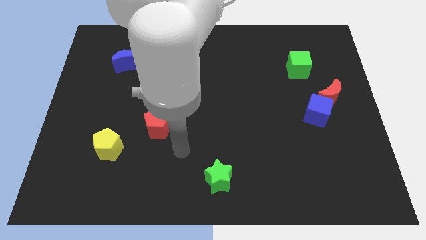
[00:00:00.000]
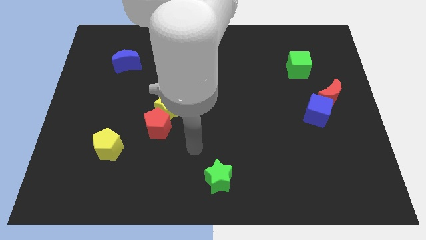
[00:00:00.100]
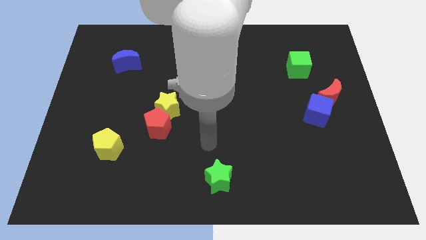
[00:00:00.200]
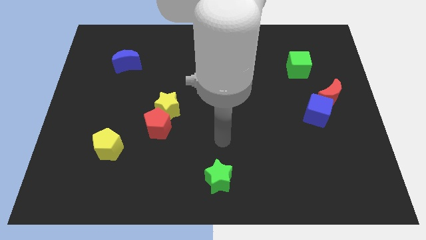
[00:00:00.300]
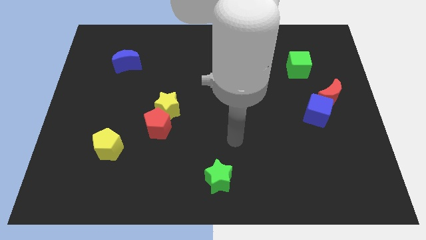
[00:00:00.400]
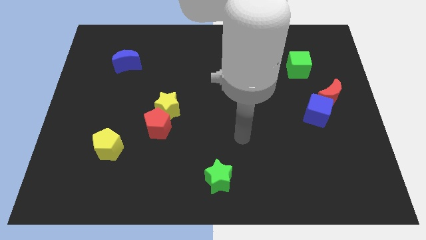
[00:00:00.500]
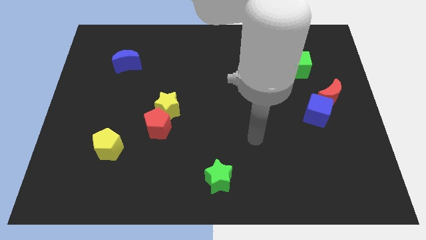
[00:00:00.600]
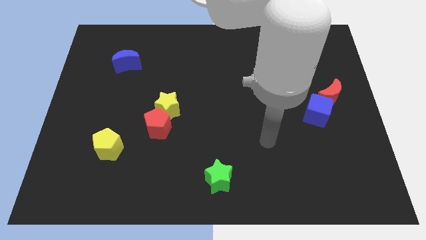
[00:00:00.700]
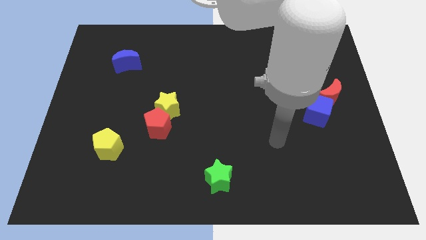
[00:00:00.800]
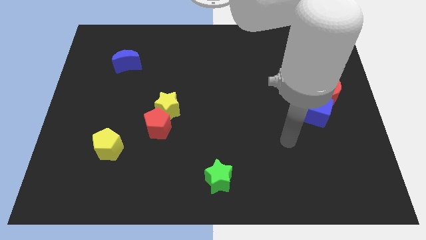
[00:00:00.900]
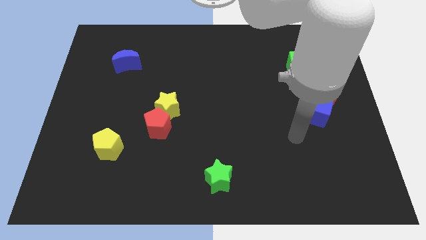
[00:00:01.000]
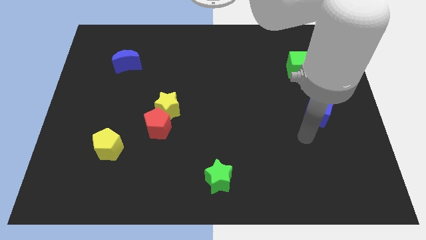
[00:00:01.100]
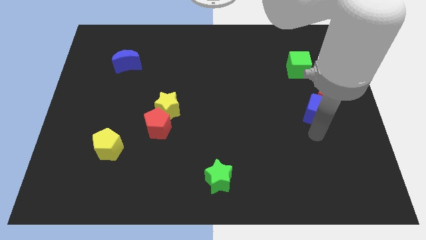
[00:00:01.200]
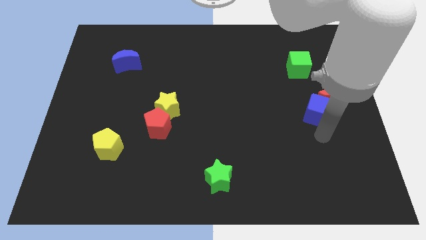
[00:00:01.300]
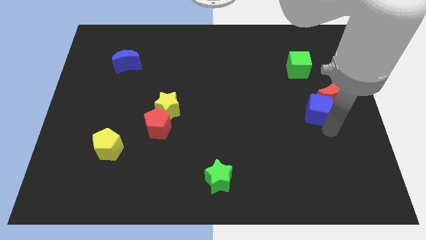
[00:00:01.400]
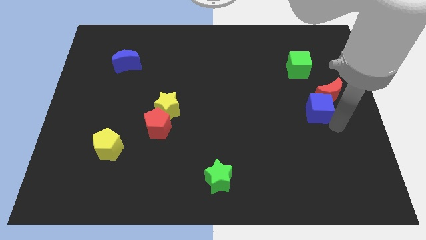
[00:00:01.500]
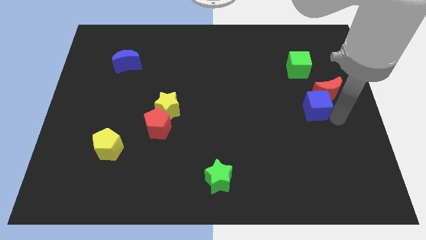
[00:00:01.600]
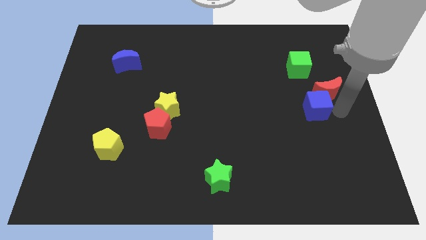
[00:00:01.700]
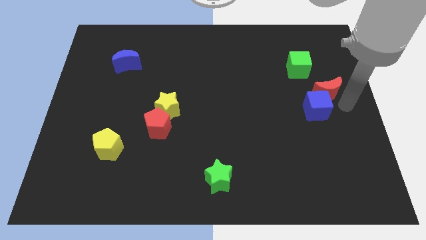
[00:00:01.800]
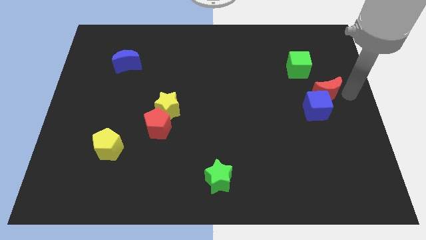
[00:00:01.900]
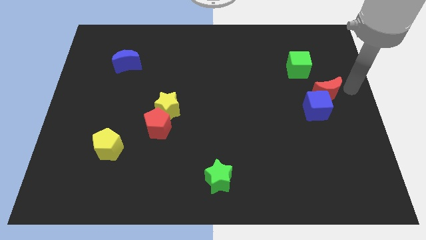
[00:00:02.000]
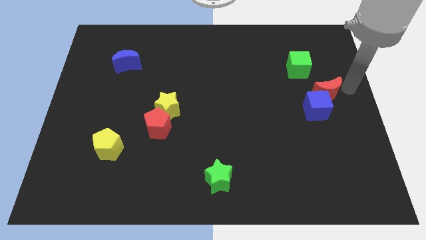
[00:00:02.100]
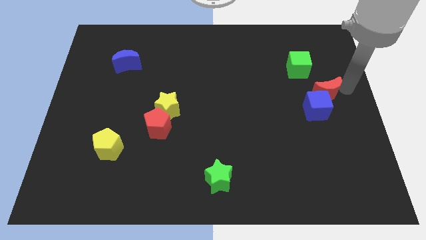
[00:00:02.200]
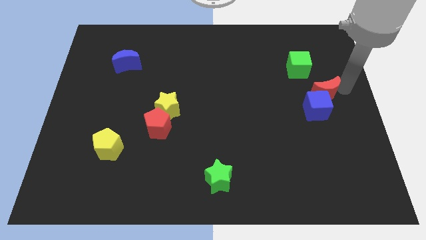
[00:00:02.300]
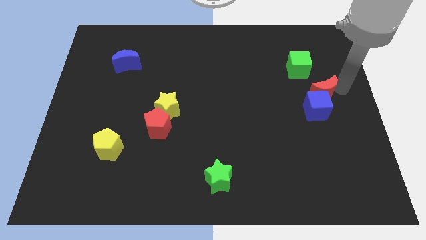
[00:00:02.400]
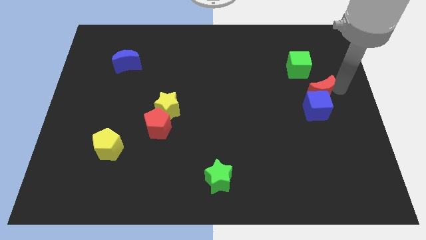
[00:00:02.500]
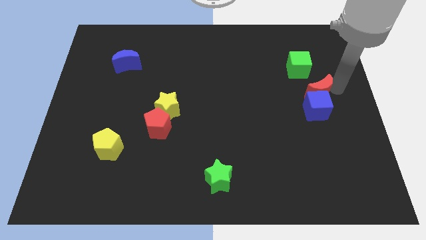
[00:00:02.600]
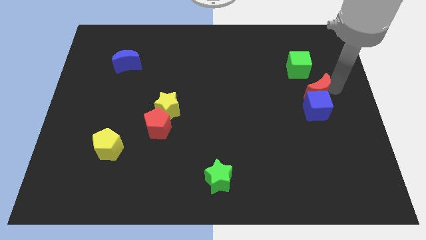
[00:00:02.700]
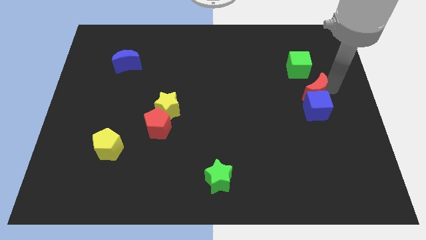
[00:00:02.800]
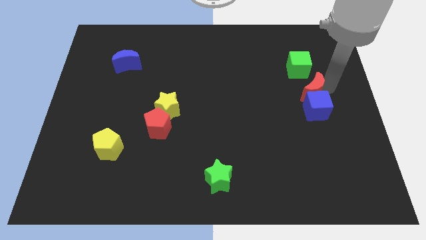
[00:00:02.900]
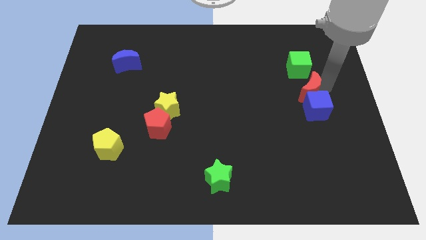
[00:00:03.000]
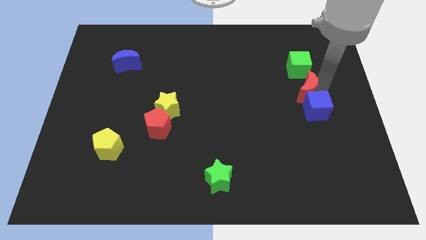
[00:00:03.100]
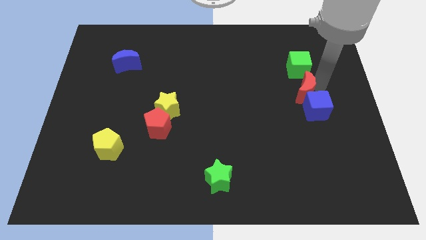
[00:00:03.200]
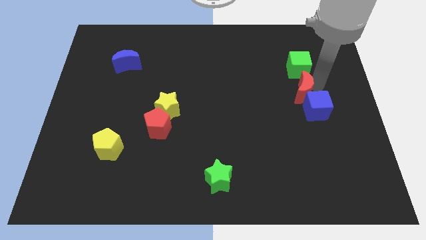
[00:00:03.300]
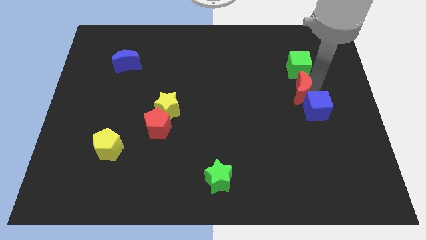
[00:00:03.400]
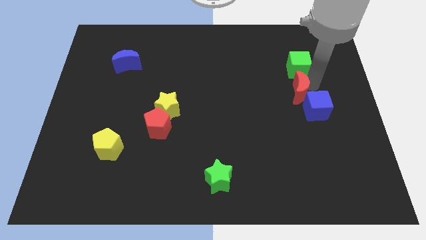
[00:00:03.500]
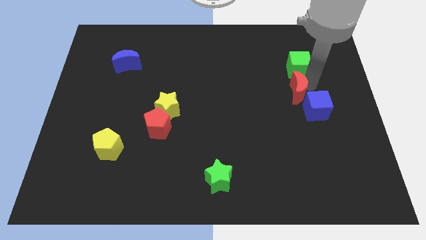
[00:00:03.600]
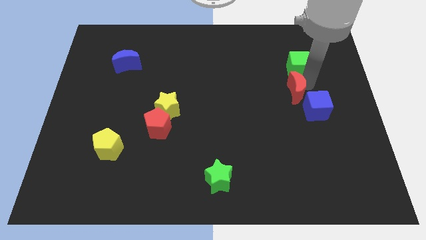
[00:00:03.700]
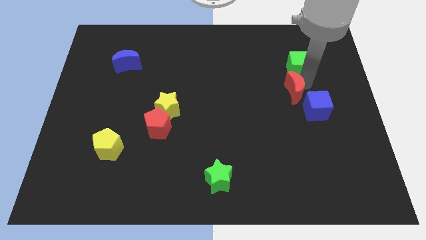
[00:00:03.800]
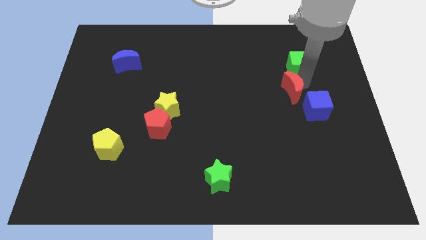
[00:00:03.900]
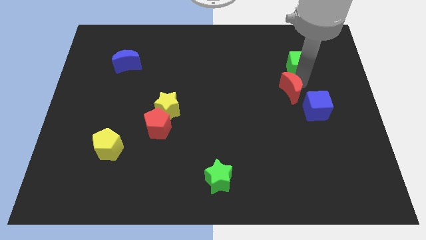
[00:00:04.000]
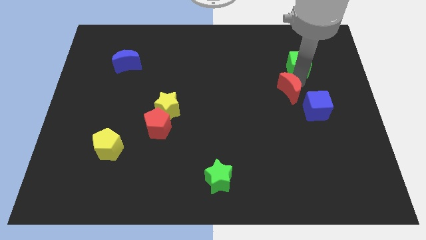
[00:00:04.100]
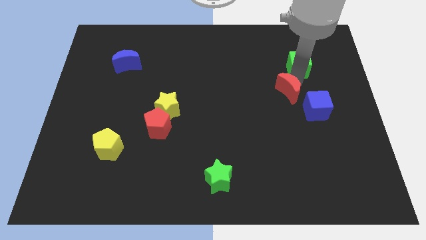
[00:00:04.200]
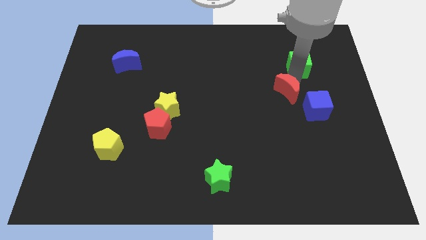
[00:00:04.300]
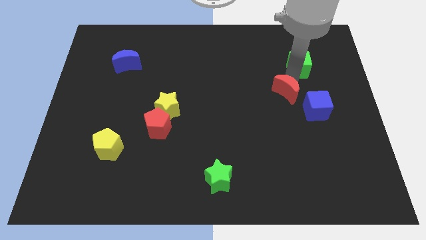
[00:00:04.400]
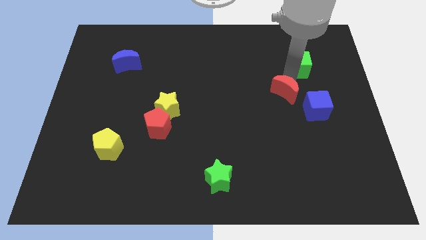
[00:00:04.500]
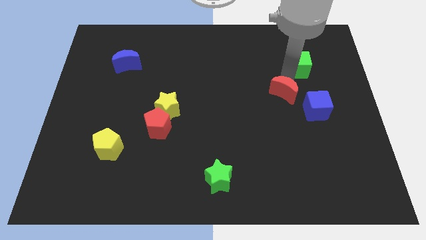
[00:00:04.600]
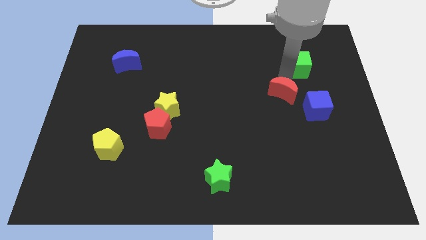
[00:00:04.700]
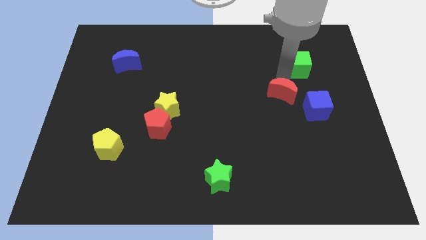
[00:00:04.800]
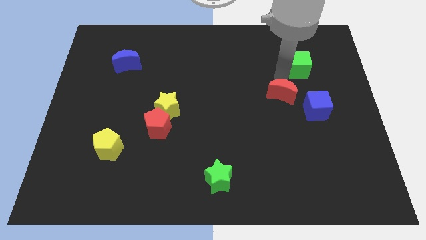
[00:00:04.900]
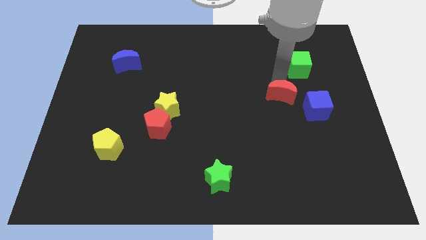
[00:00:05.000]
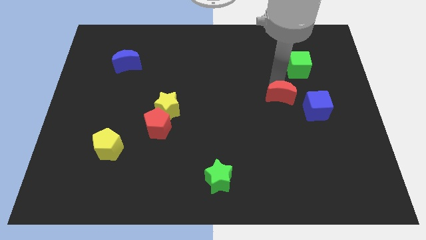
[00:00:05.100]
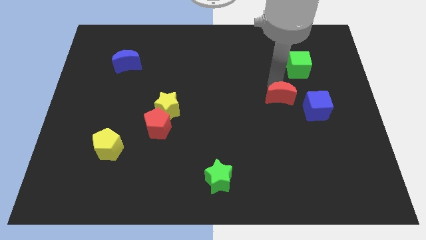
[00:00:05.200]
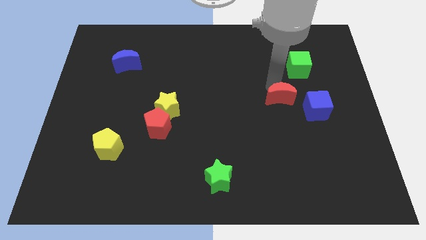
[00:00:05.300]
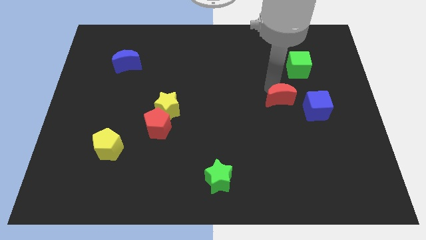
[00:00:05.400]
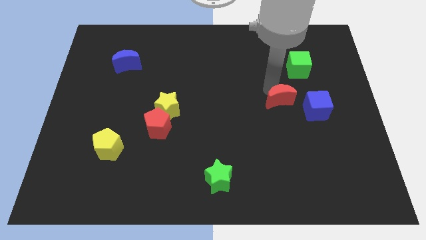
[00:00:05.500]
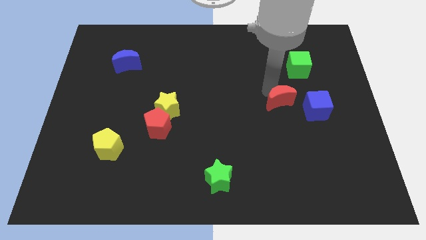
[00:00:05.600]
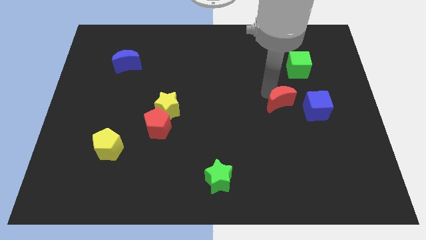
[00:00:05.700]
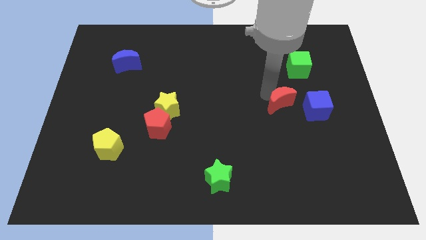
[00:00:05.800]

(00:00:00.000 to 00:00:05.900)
slightly push the red moon downwards and then left

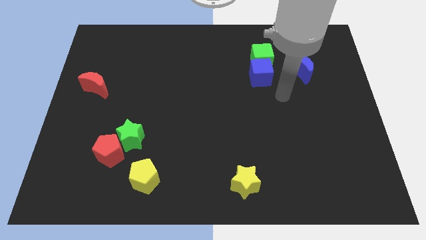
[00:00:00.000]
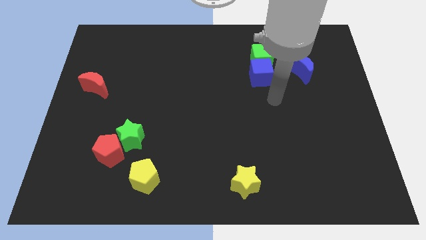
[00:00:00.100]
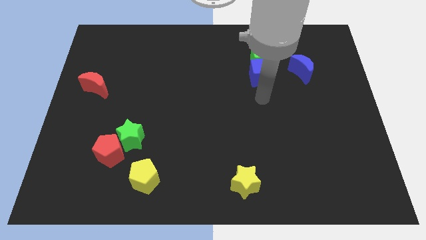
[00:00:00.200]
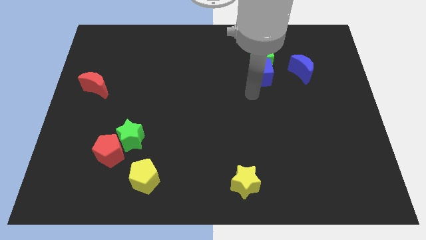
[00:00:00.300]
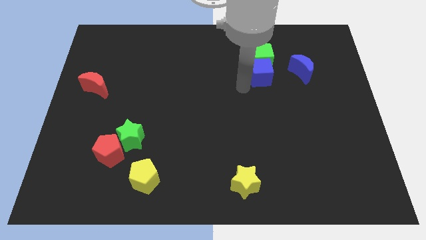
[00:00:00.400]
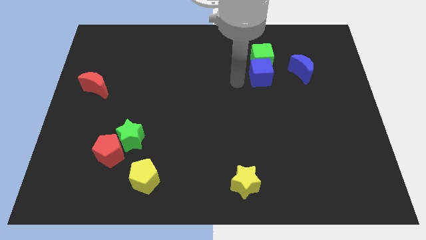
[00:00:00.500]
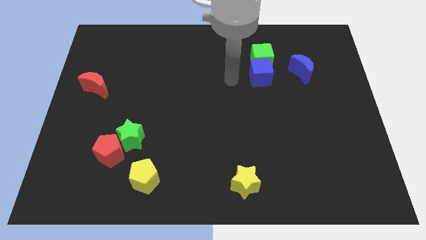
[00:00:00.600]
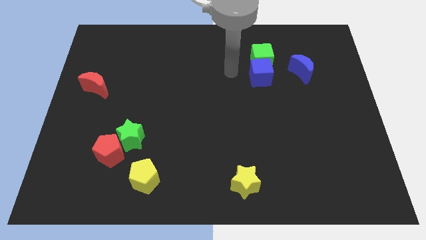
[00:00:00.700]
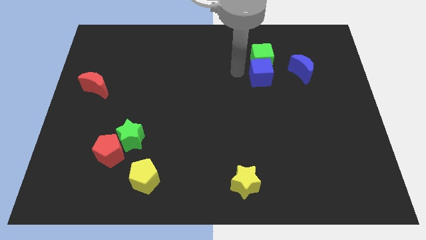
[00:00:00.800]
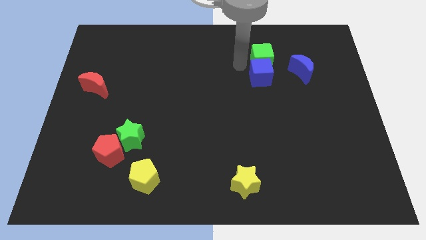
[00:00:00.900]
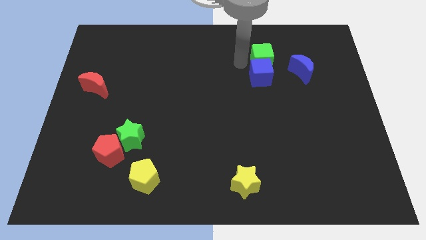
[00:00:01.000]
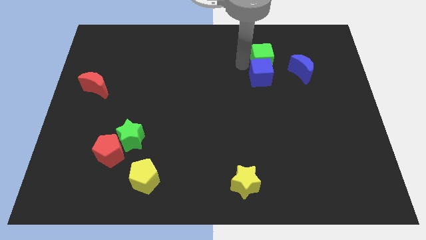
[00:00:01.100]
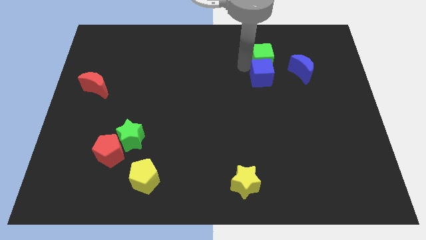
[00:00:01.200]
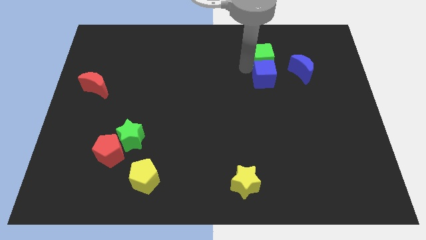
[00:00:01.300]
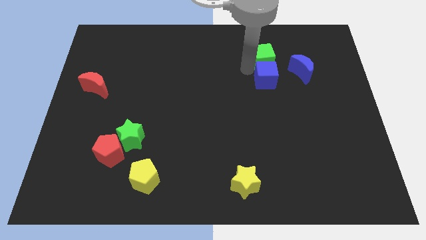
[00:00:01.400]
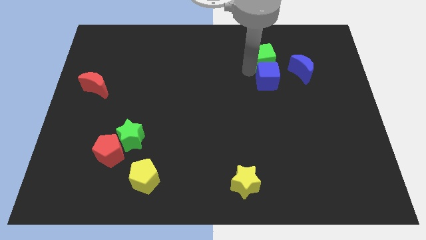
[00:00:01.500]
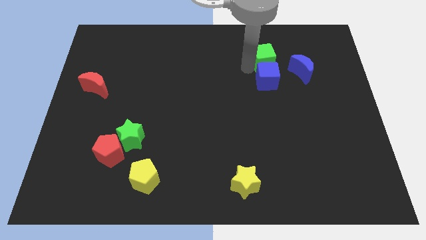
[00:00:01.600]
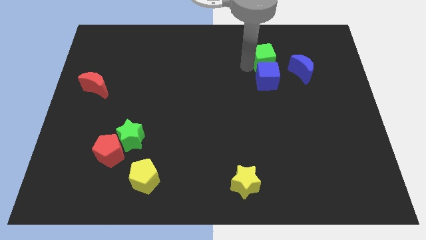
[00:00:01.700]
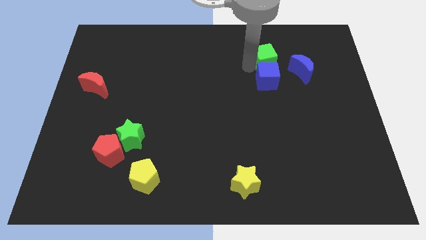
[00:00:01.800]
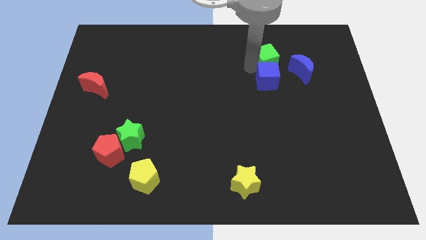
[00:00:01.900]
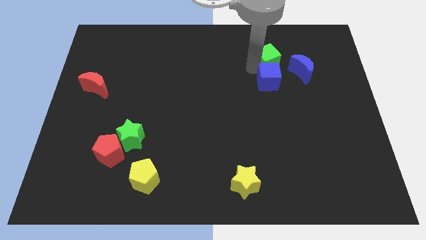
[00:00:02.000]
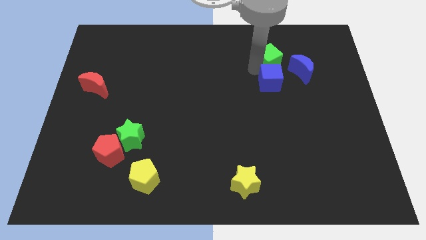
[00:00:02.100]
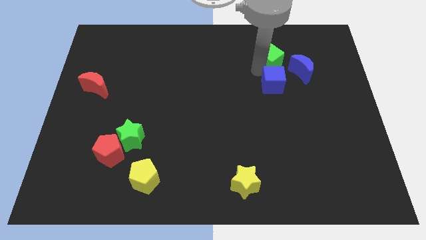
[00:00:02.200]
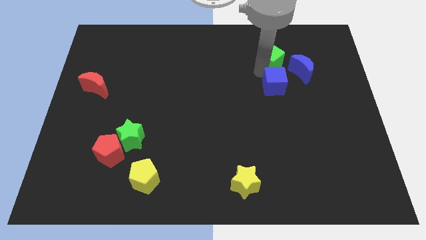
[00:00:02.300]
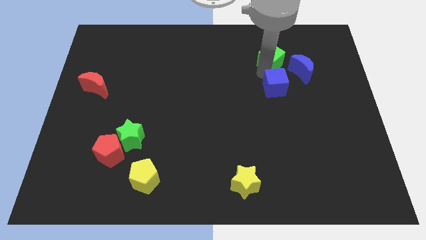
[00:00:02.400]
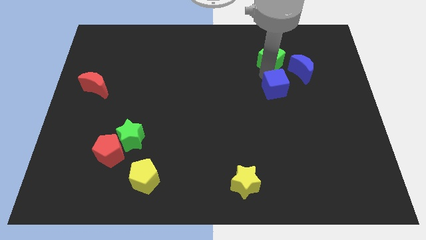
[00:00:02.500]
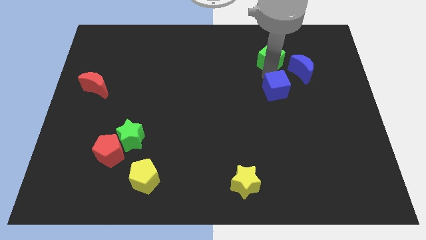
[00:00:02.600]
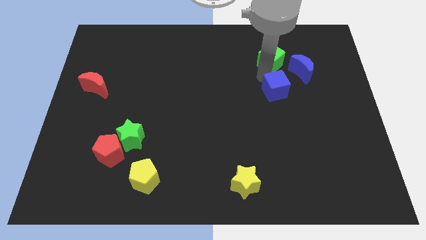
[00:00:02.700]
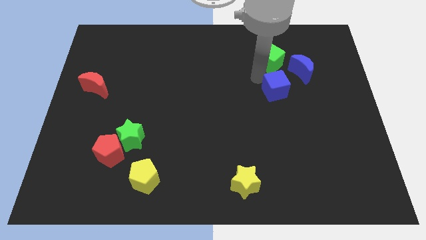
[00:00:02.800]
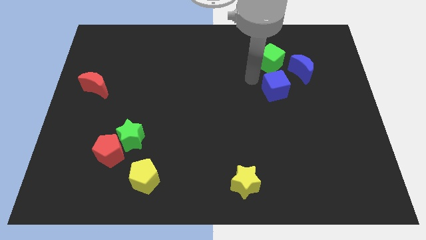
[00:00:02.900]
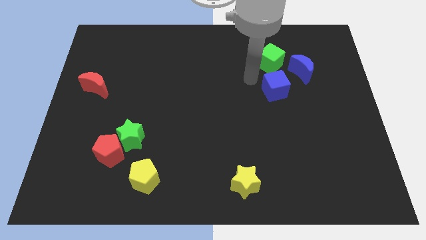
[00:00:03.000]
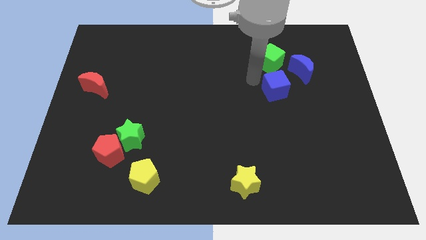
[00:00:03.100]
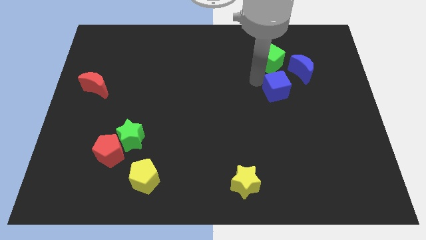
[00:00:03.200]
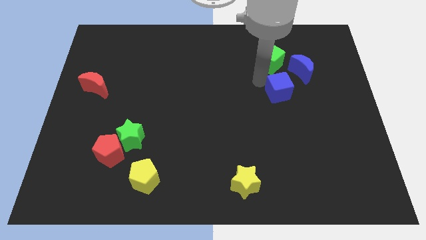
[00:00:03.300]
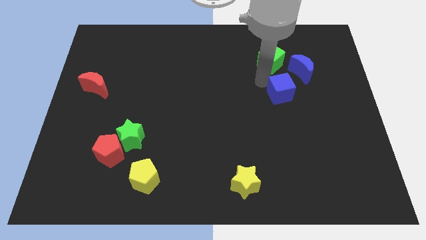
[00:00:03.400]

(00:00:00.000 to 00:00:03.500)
slide the blue cube downwards and to the right diagonally slightly
